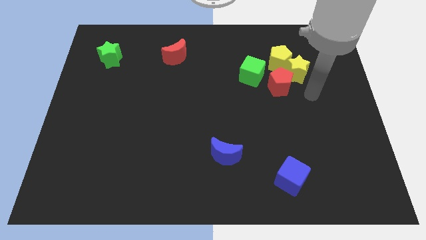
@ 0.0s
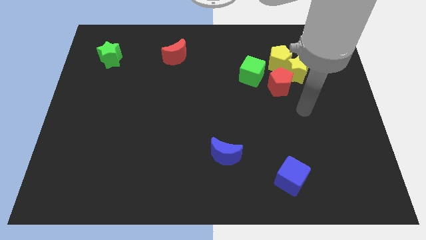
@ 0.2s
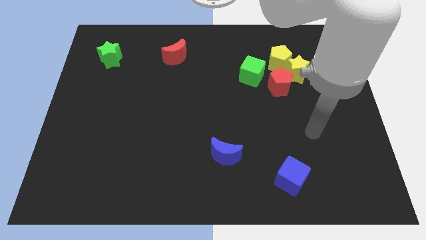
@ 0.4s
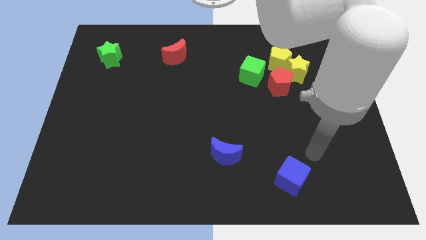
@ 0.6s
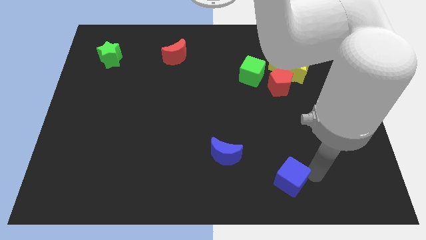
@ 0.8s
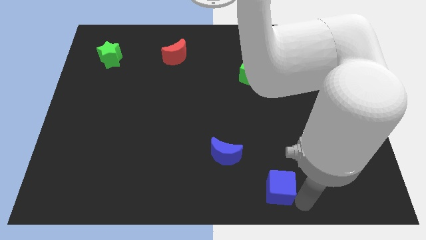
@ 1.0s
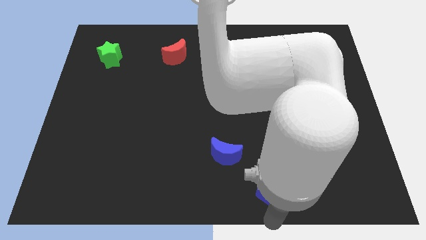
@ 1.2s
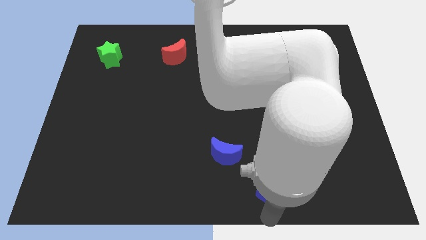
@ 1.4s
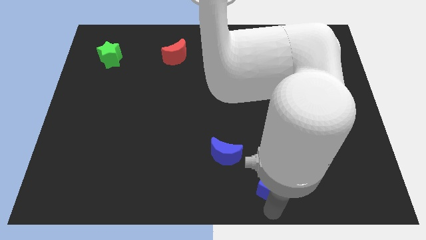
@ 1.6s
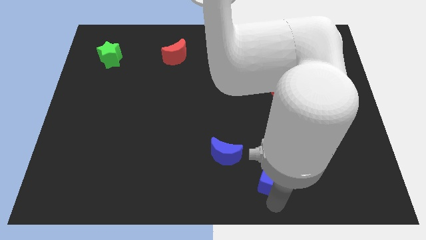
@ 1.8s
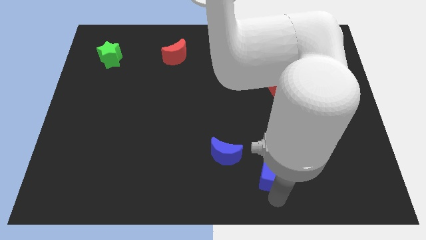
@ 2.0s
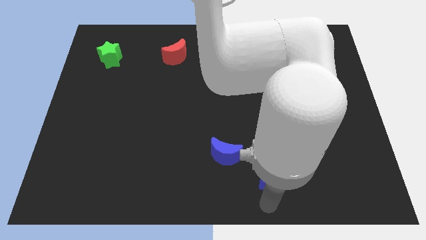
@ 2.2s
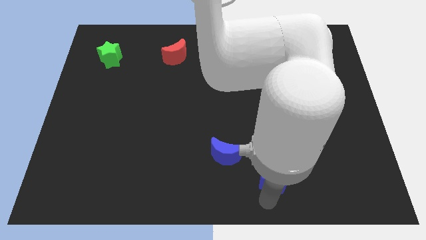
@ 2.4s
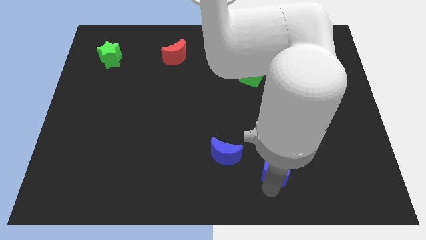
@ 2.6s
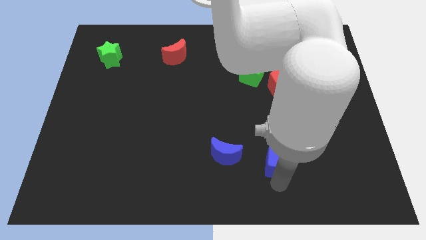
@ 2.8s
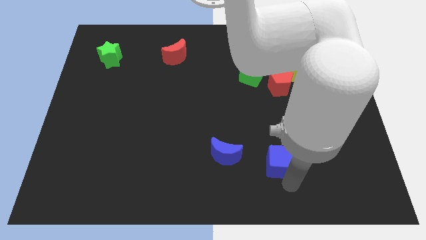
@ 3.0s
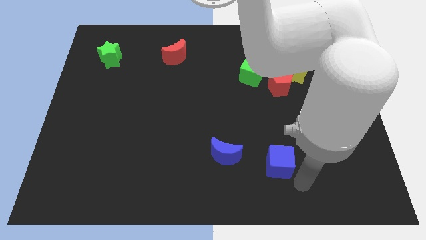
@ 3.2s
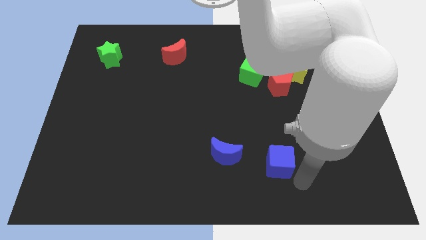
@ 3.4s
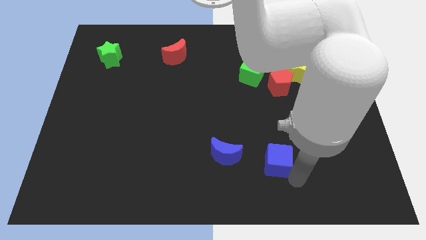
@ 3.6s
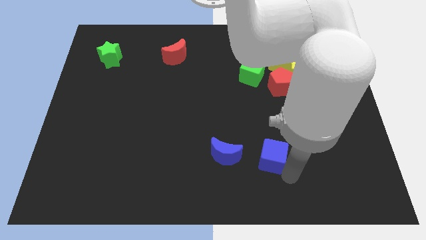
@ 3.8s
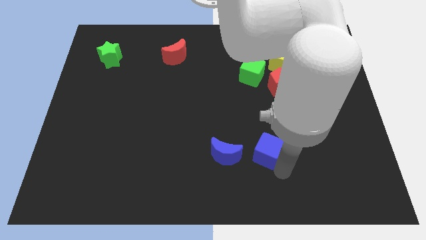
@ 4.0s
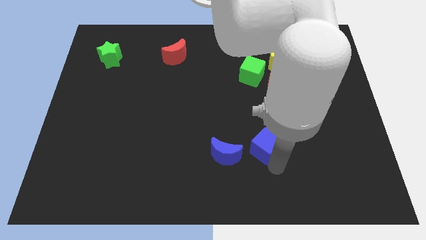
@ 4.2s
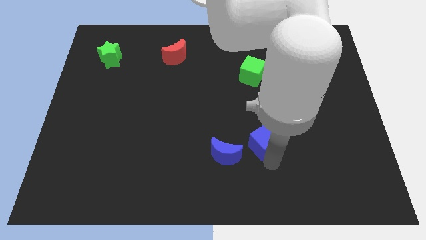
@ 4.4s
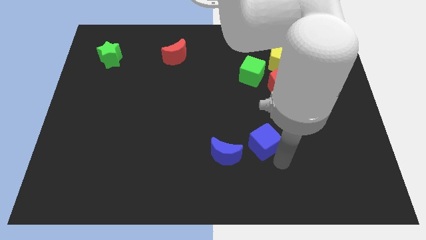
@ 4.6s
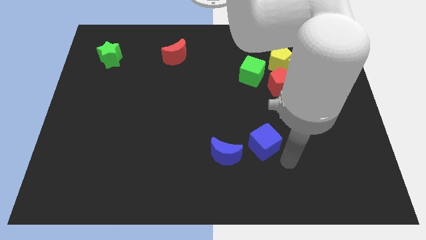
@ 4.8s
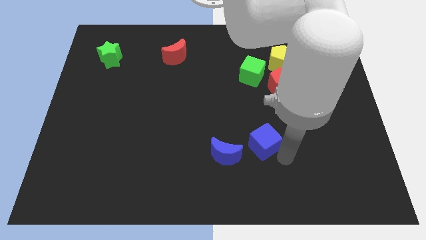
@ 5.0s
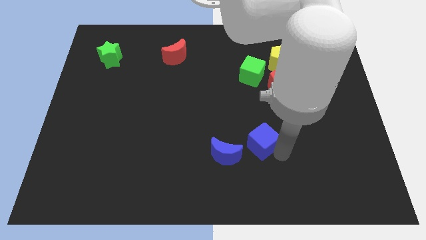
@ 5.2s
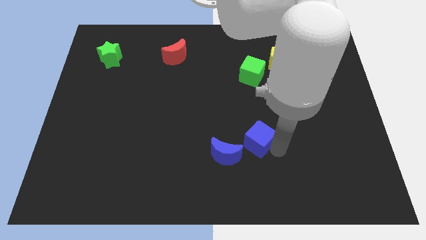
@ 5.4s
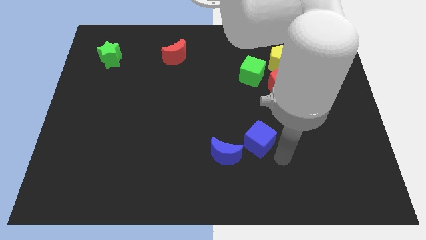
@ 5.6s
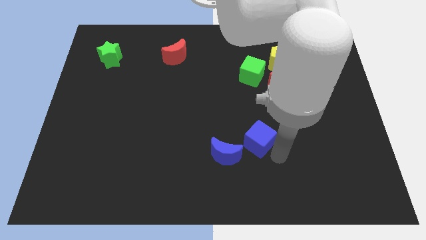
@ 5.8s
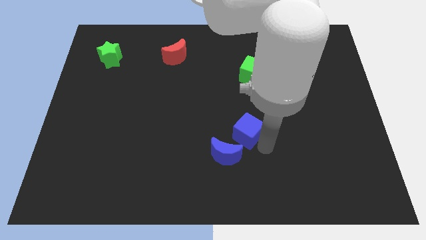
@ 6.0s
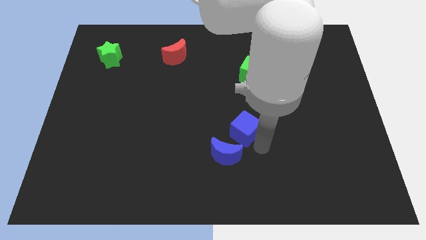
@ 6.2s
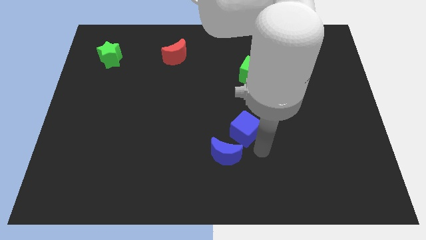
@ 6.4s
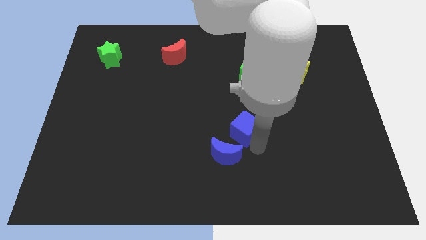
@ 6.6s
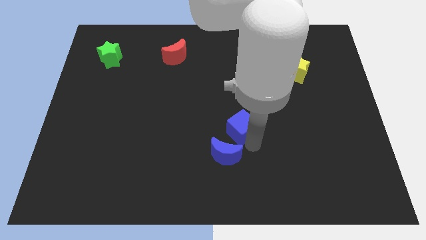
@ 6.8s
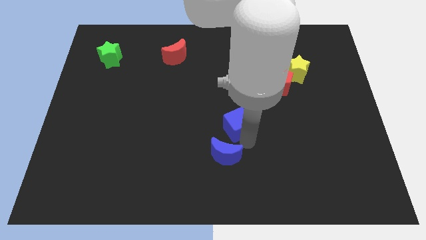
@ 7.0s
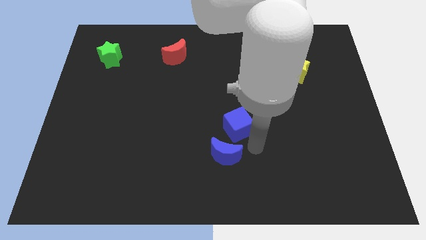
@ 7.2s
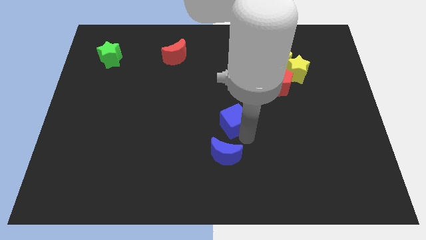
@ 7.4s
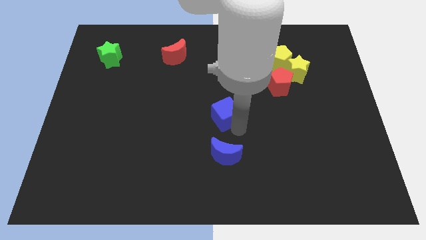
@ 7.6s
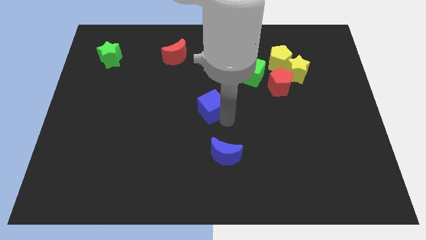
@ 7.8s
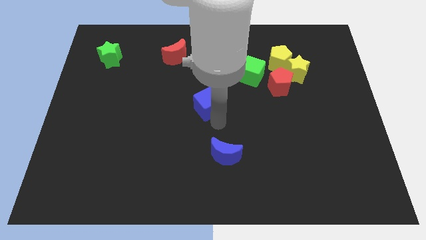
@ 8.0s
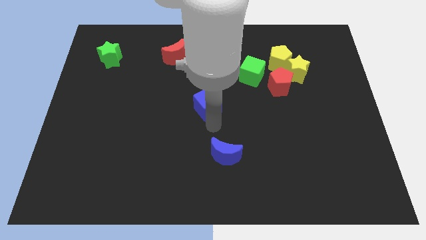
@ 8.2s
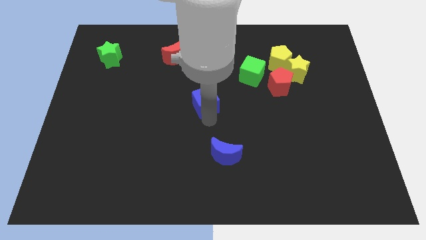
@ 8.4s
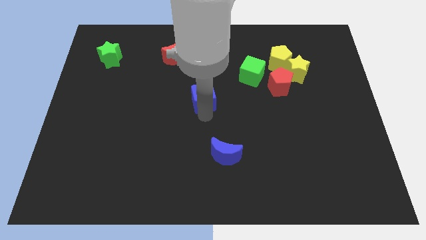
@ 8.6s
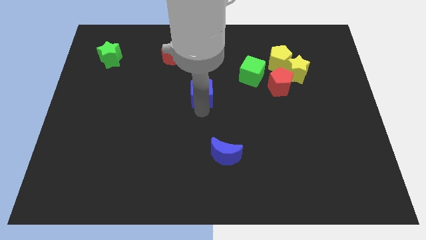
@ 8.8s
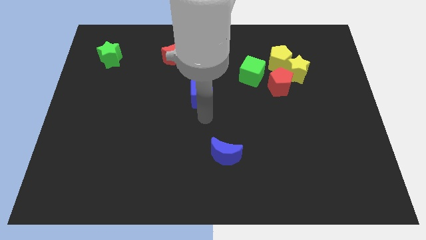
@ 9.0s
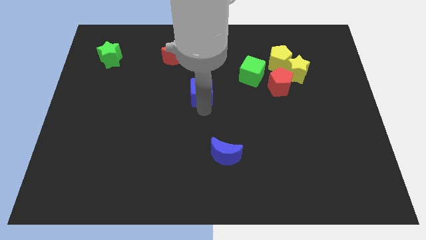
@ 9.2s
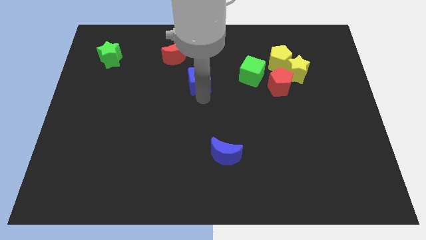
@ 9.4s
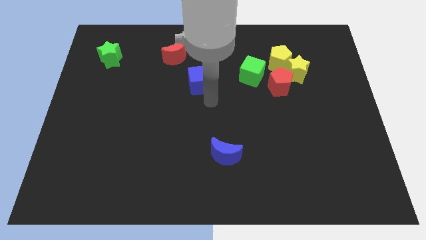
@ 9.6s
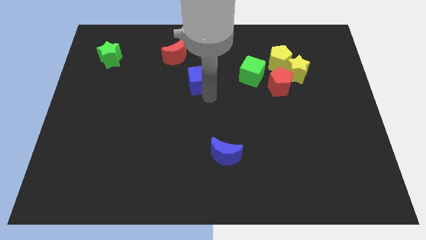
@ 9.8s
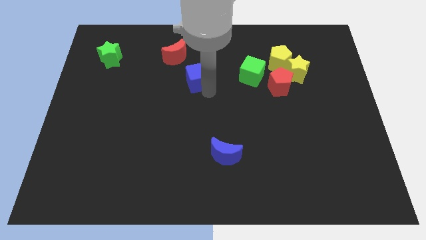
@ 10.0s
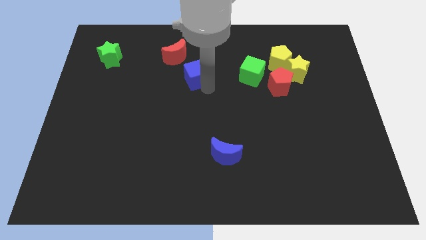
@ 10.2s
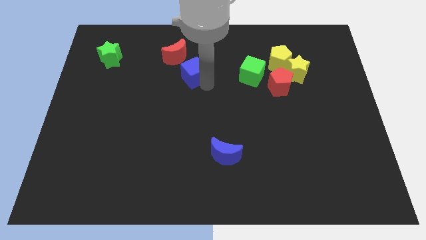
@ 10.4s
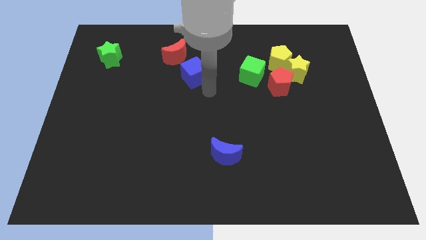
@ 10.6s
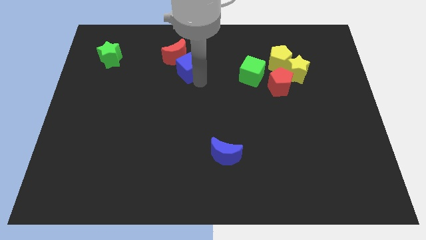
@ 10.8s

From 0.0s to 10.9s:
put the blue cube next to the red moon

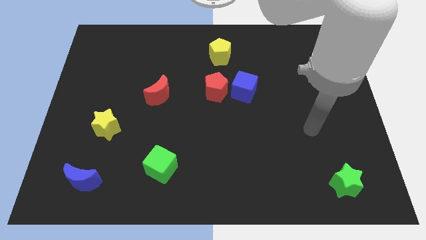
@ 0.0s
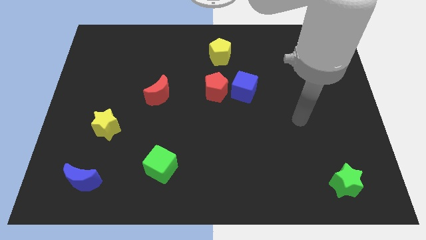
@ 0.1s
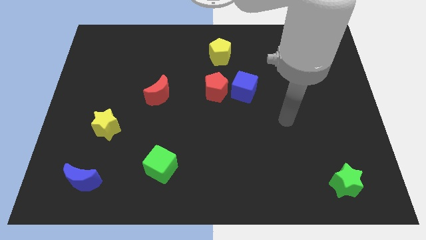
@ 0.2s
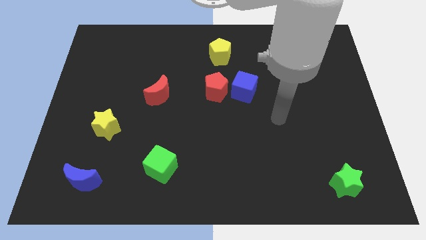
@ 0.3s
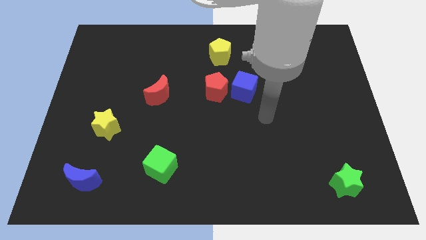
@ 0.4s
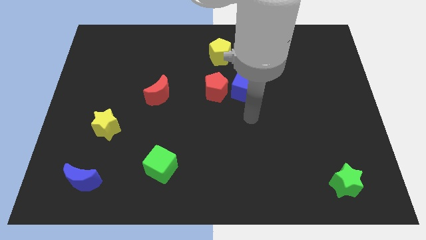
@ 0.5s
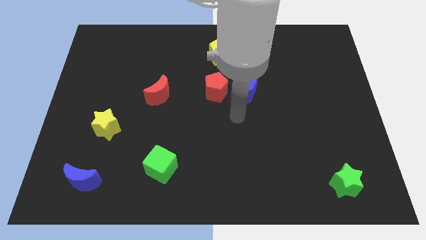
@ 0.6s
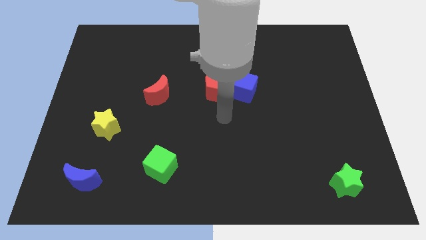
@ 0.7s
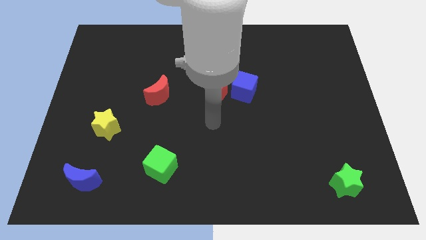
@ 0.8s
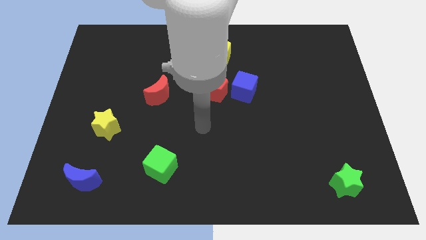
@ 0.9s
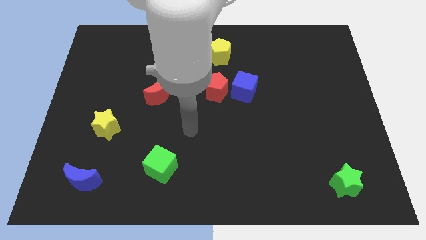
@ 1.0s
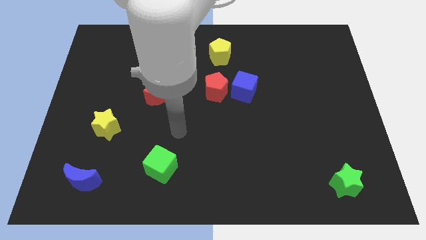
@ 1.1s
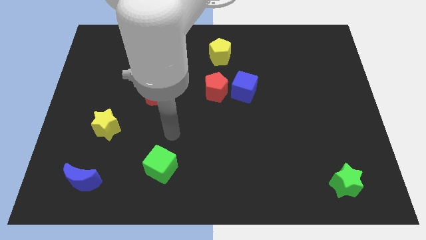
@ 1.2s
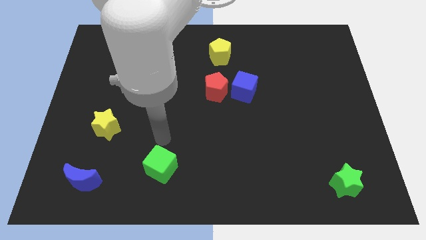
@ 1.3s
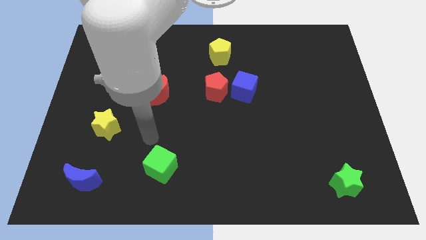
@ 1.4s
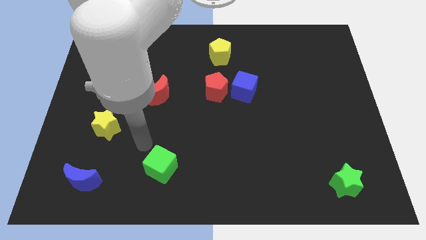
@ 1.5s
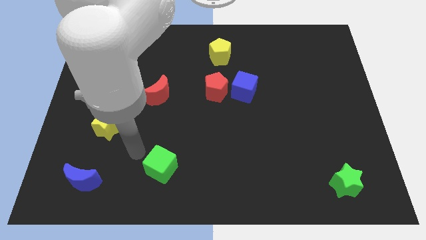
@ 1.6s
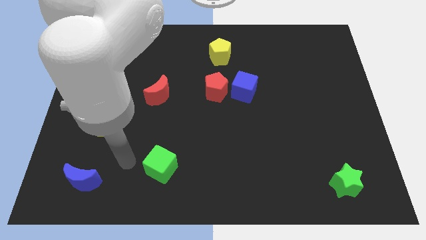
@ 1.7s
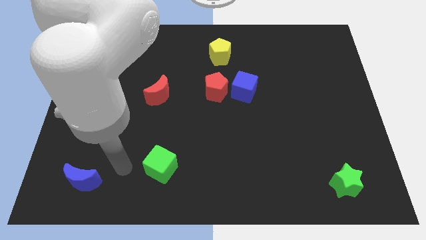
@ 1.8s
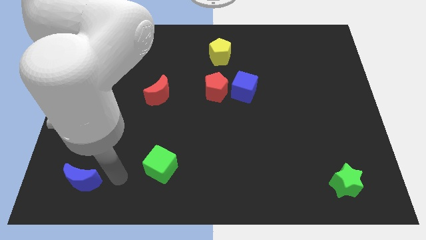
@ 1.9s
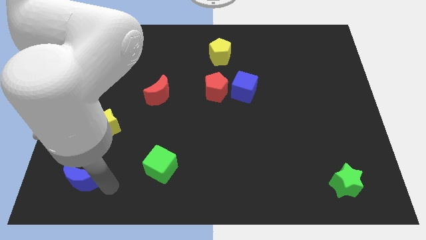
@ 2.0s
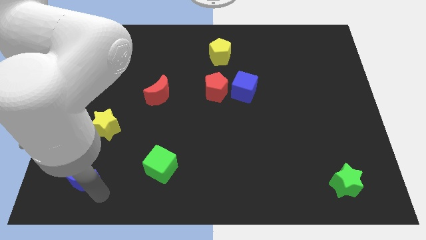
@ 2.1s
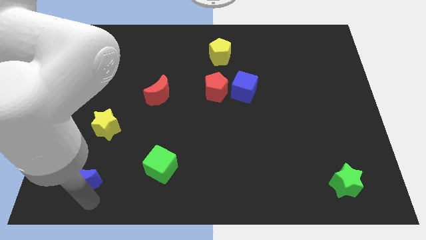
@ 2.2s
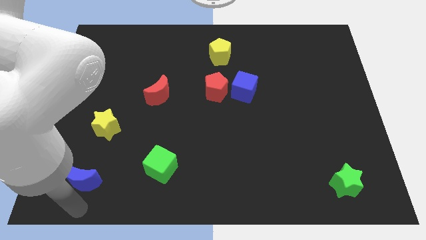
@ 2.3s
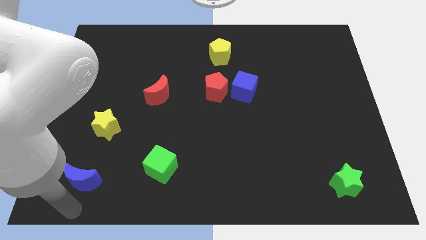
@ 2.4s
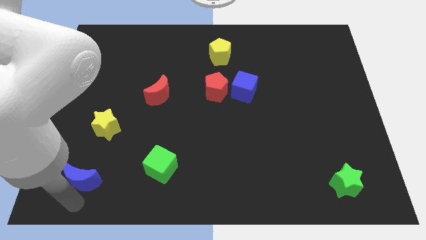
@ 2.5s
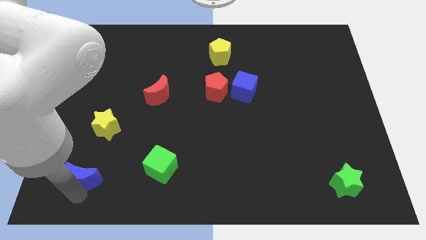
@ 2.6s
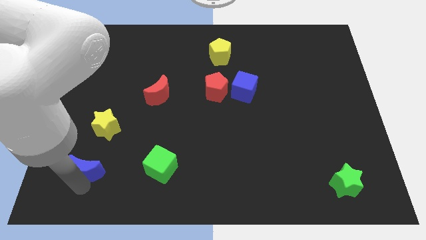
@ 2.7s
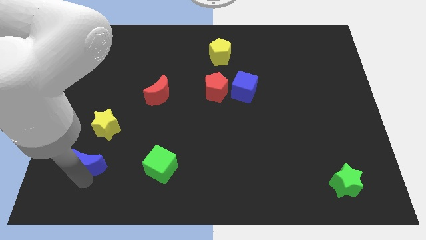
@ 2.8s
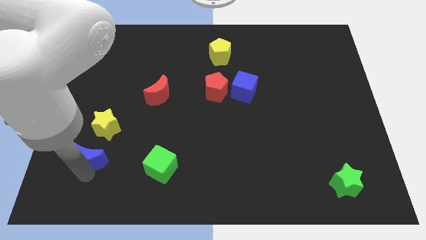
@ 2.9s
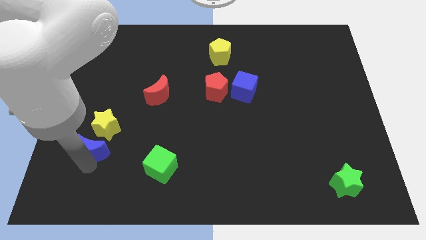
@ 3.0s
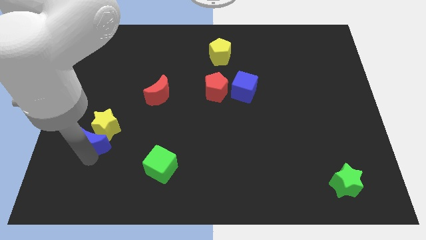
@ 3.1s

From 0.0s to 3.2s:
push the blue moon towards the yellow star
